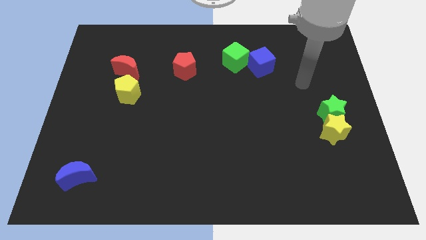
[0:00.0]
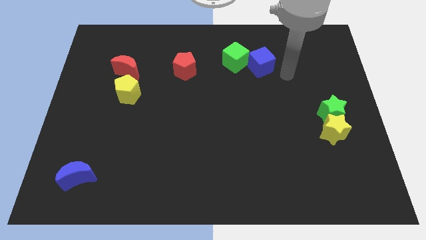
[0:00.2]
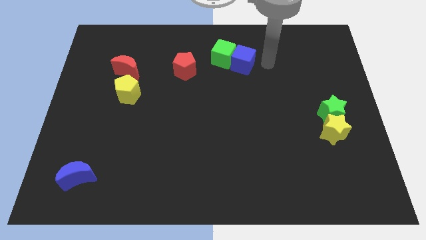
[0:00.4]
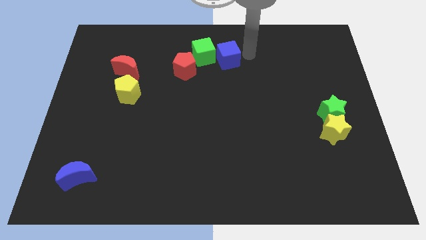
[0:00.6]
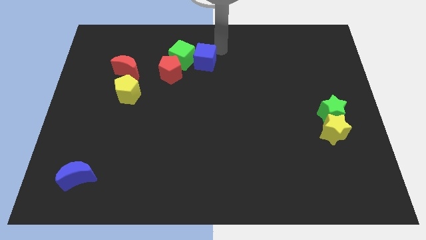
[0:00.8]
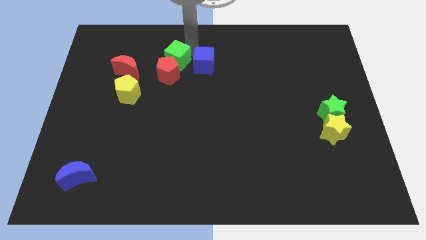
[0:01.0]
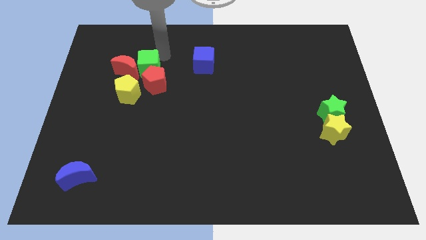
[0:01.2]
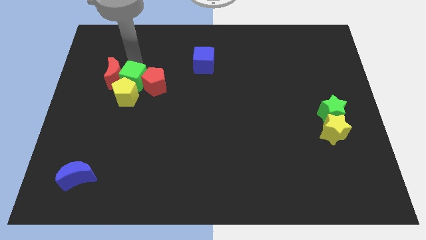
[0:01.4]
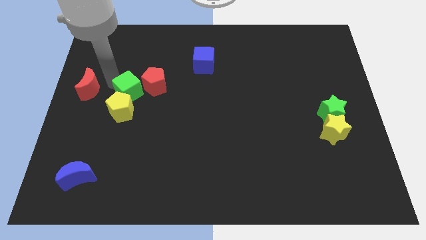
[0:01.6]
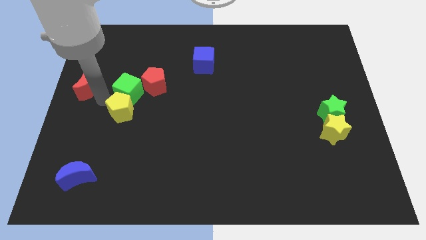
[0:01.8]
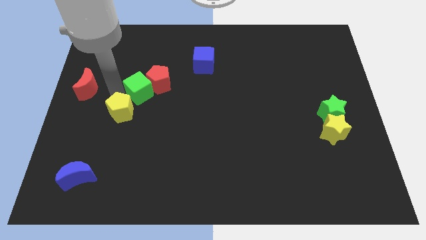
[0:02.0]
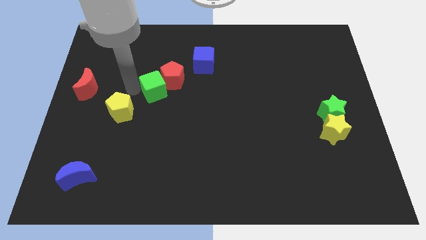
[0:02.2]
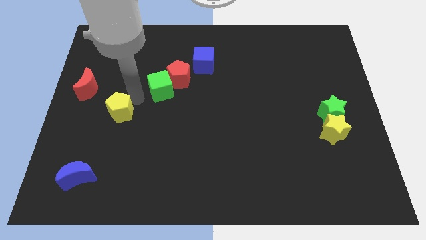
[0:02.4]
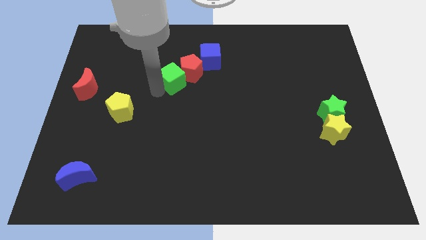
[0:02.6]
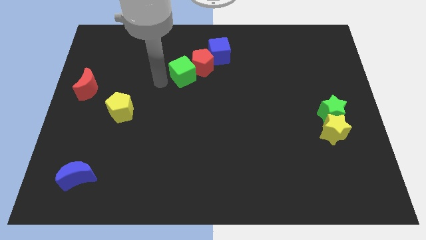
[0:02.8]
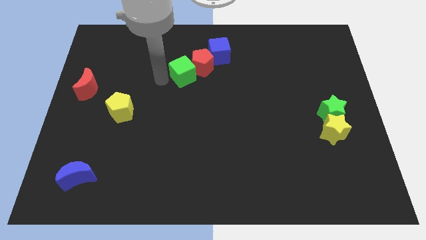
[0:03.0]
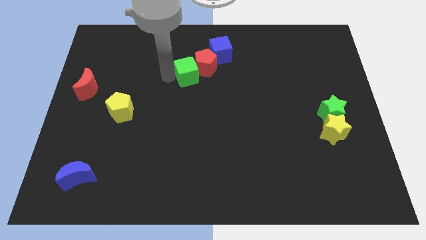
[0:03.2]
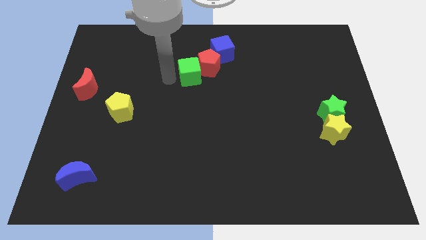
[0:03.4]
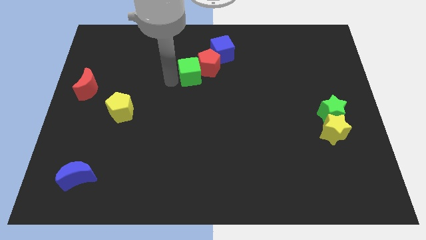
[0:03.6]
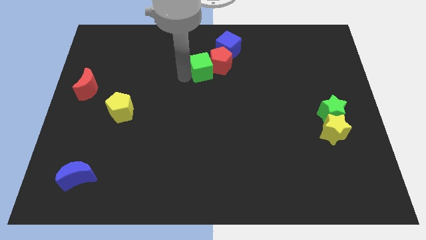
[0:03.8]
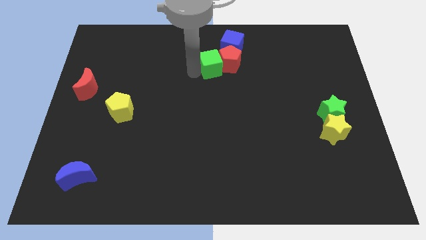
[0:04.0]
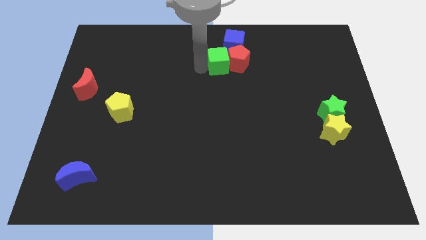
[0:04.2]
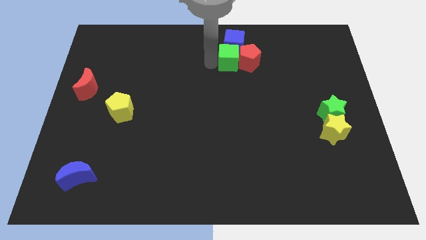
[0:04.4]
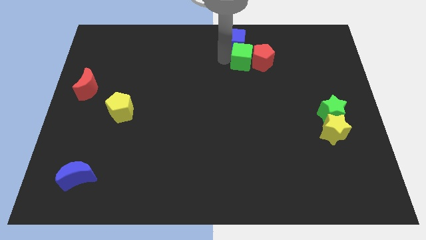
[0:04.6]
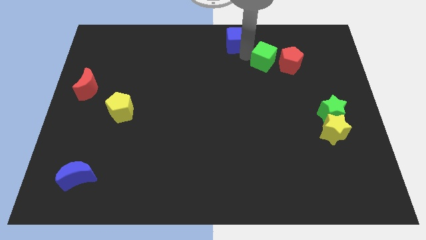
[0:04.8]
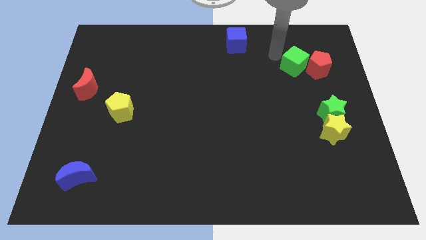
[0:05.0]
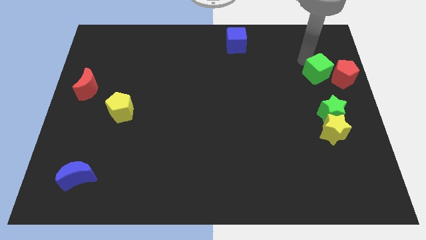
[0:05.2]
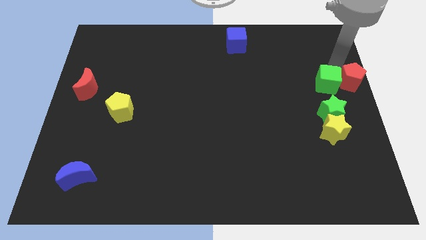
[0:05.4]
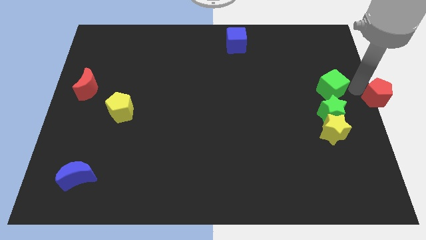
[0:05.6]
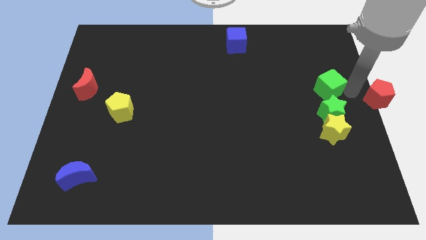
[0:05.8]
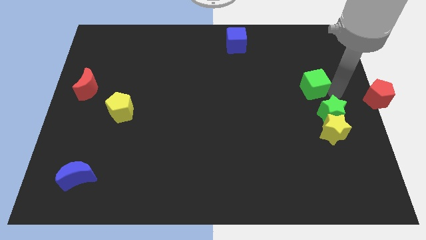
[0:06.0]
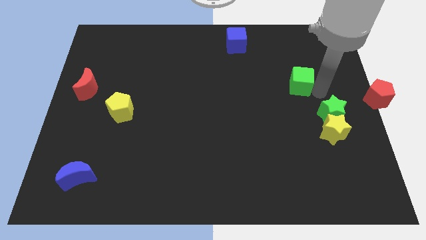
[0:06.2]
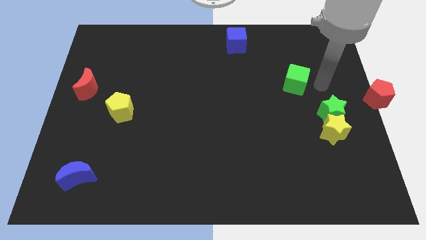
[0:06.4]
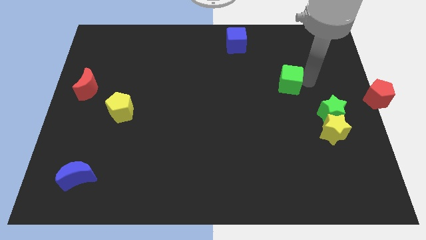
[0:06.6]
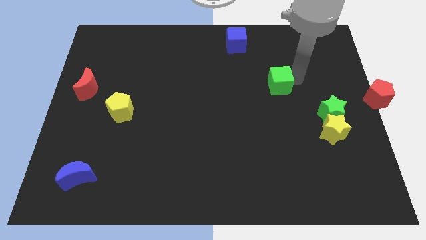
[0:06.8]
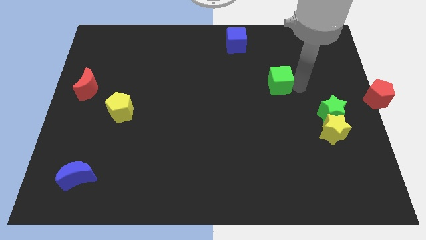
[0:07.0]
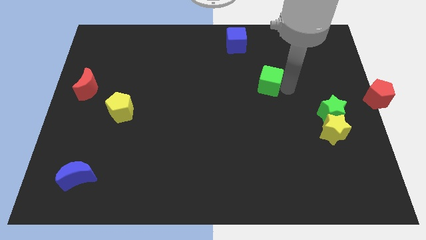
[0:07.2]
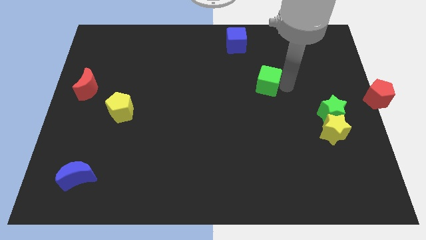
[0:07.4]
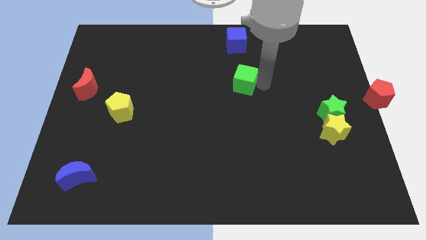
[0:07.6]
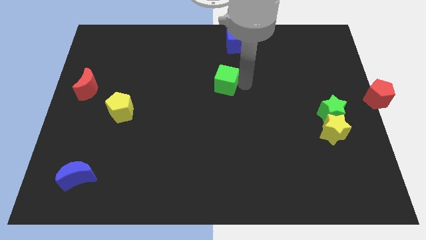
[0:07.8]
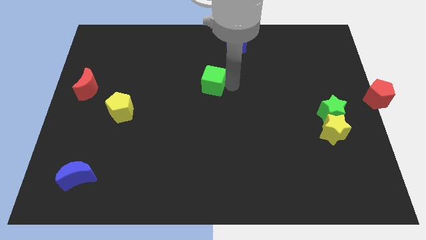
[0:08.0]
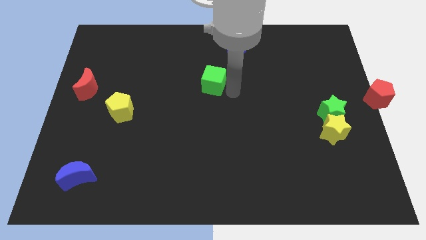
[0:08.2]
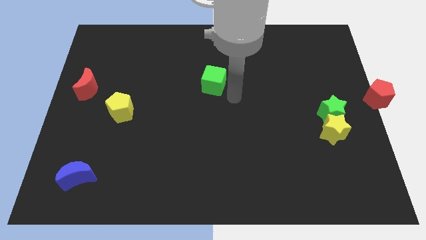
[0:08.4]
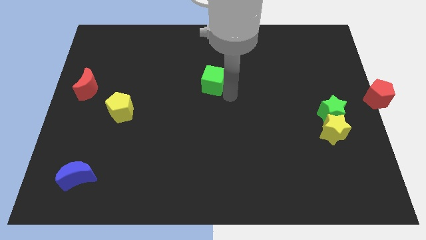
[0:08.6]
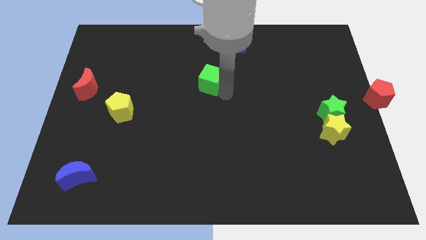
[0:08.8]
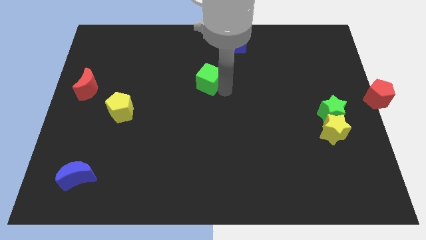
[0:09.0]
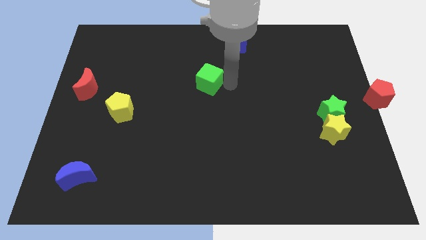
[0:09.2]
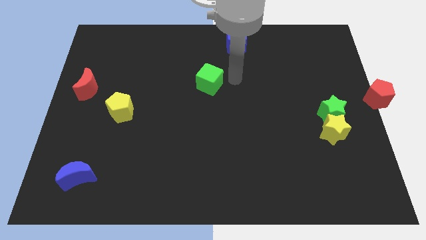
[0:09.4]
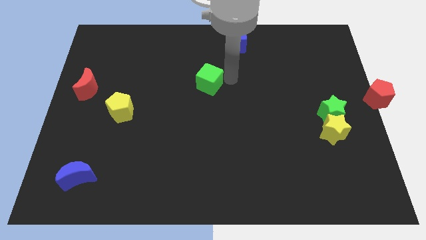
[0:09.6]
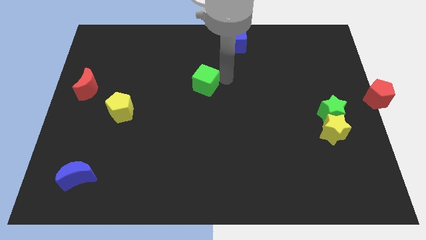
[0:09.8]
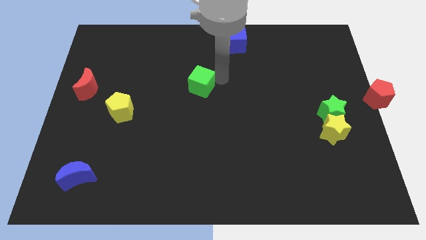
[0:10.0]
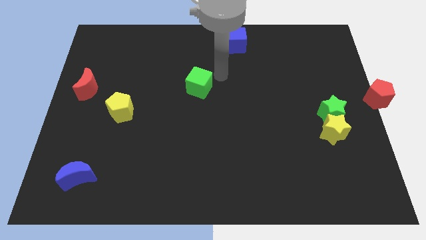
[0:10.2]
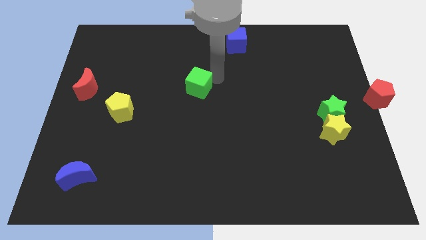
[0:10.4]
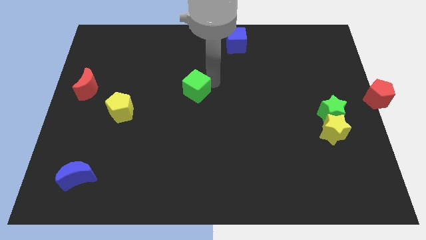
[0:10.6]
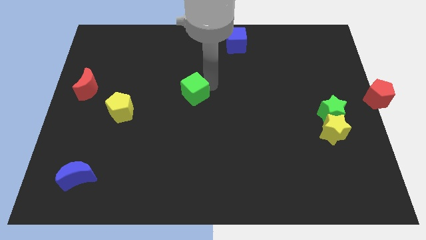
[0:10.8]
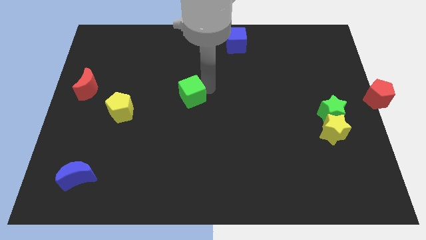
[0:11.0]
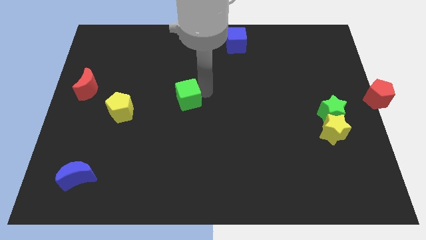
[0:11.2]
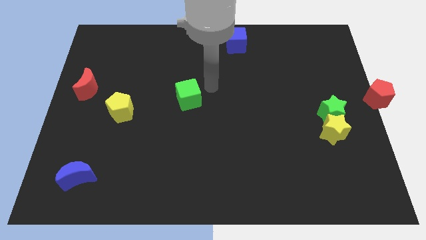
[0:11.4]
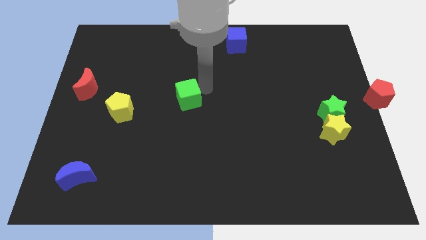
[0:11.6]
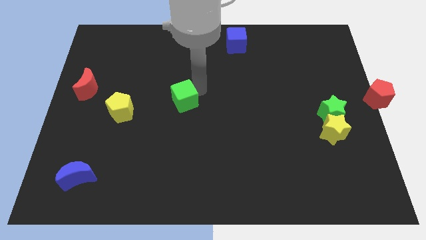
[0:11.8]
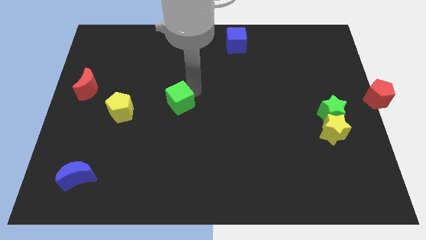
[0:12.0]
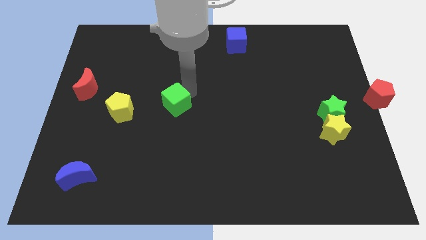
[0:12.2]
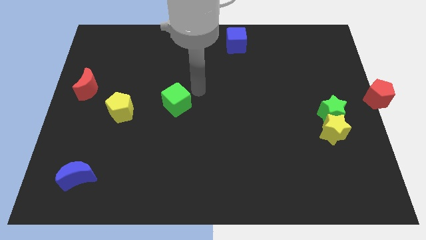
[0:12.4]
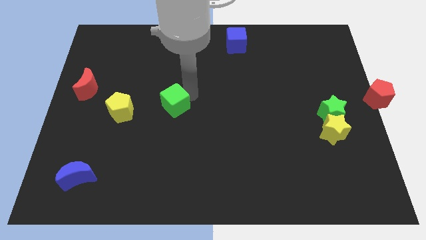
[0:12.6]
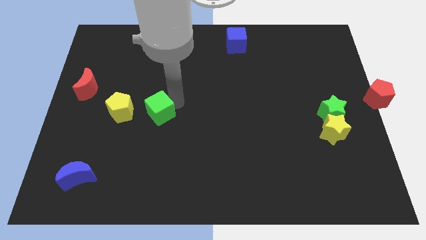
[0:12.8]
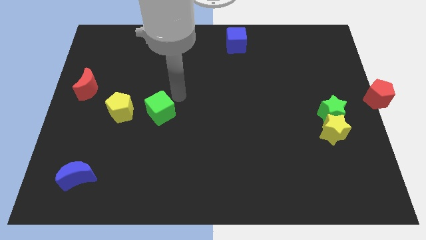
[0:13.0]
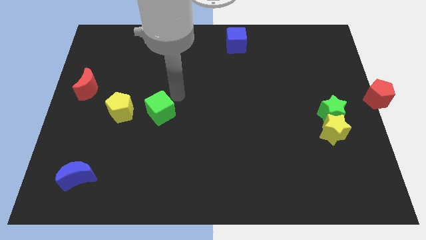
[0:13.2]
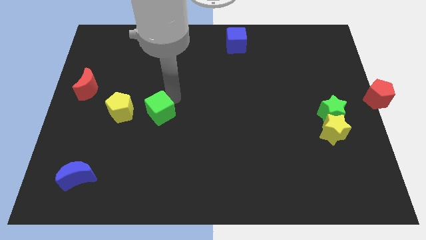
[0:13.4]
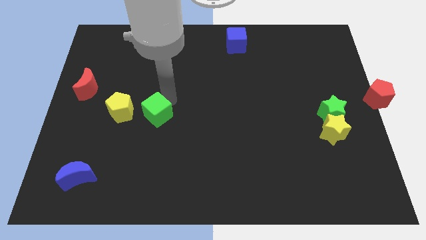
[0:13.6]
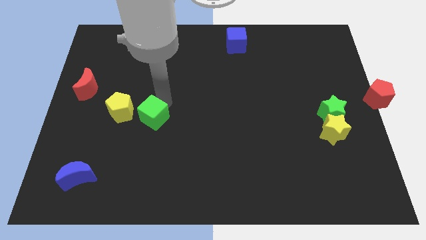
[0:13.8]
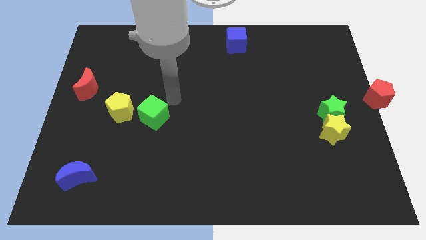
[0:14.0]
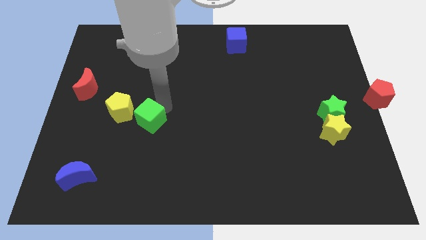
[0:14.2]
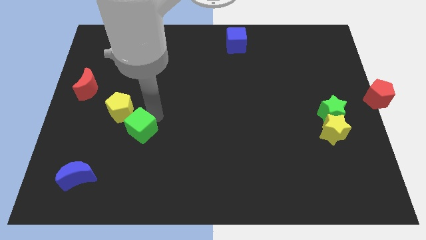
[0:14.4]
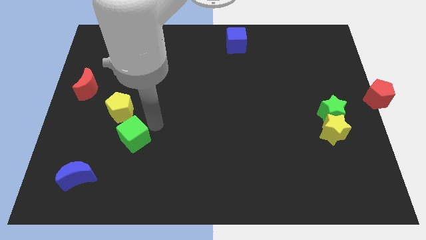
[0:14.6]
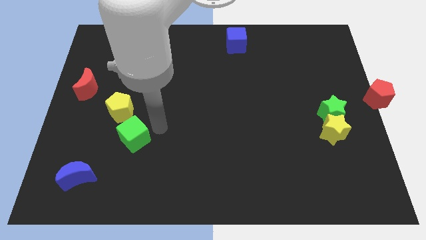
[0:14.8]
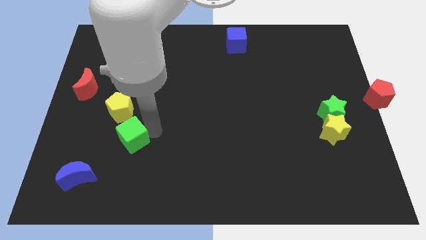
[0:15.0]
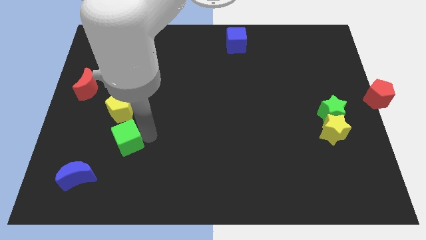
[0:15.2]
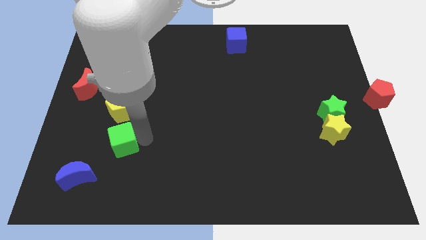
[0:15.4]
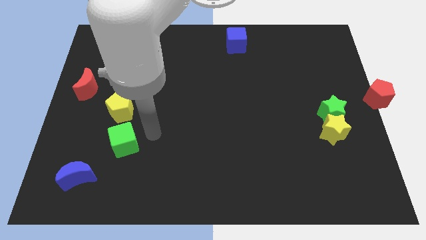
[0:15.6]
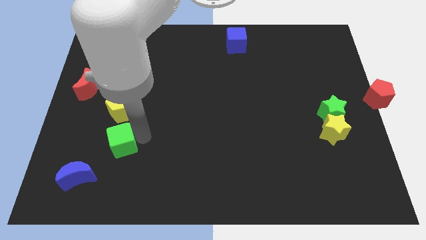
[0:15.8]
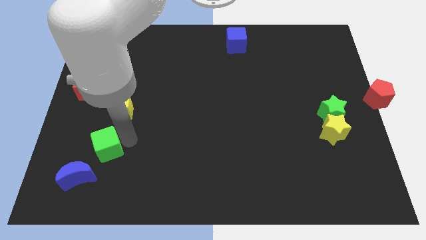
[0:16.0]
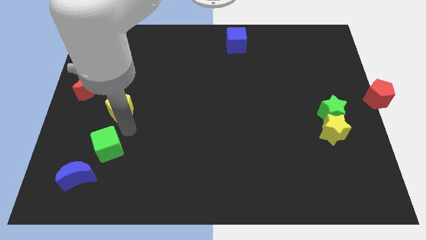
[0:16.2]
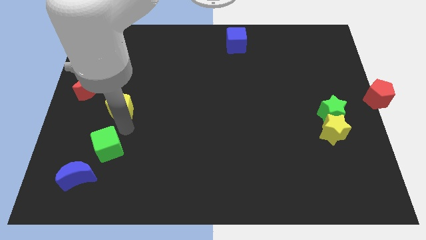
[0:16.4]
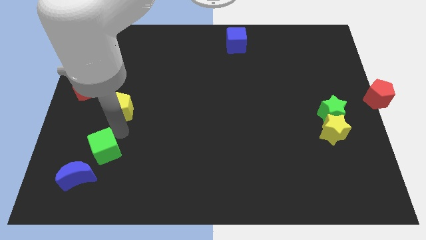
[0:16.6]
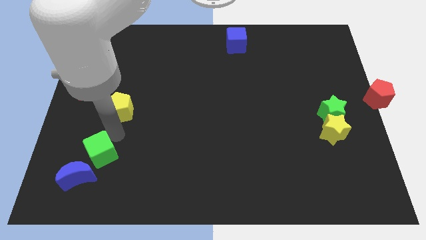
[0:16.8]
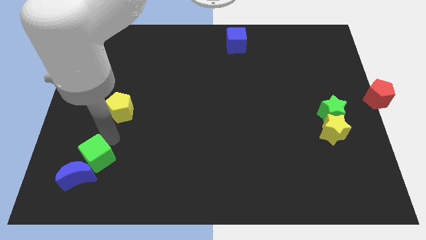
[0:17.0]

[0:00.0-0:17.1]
slide the green cube to the blue moon
